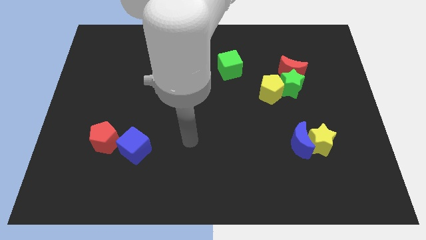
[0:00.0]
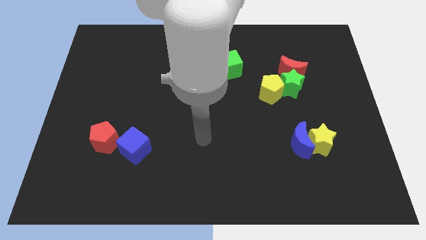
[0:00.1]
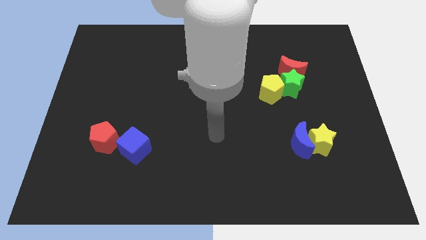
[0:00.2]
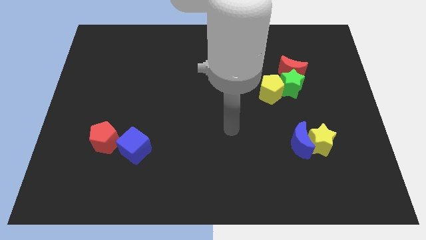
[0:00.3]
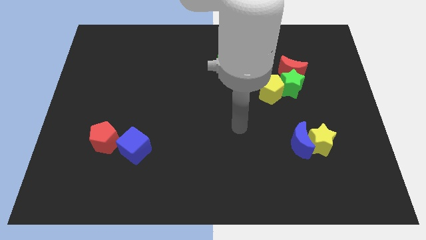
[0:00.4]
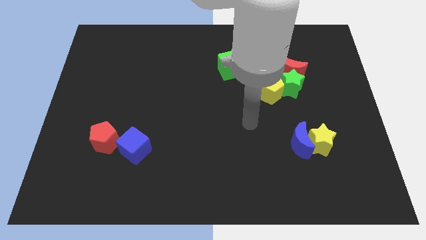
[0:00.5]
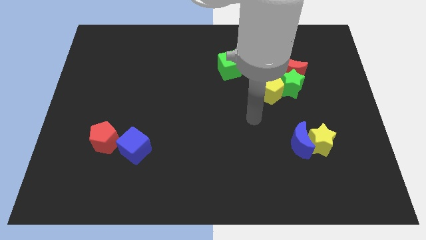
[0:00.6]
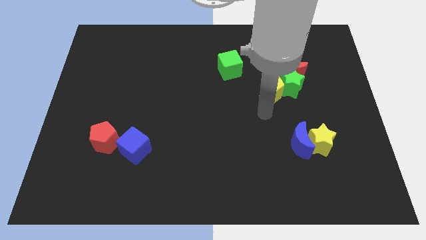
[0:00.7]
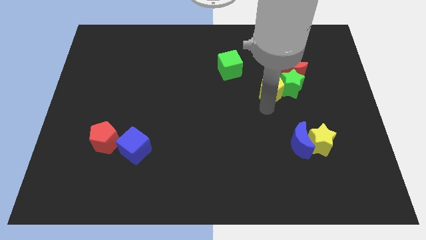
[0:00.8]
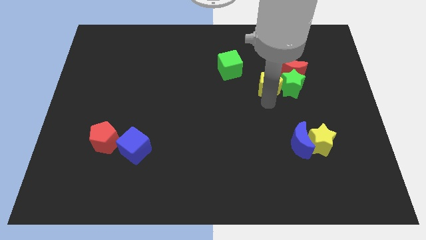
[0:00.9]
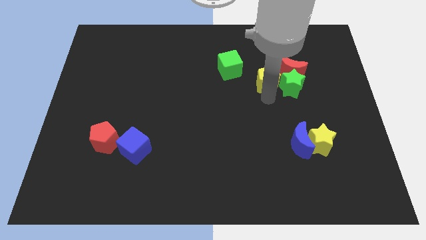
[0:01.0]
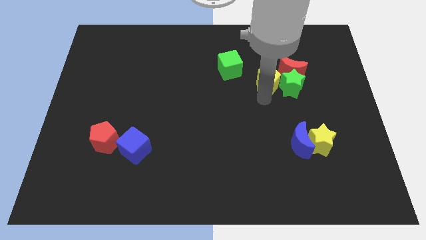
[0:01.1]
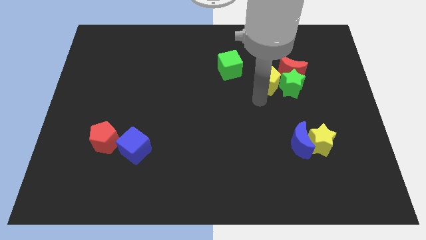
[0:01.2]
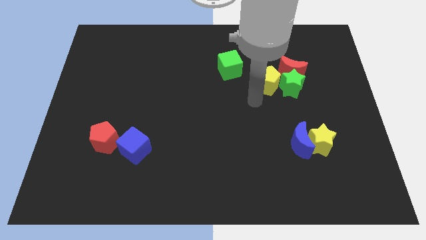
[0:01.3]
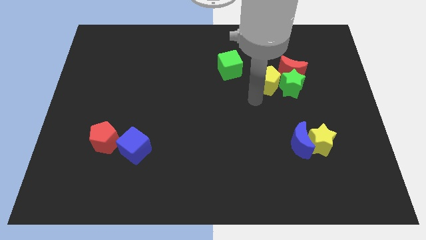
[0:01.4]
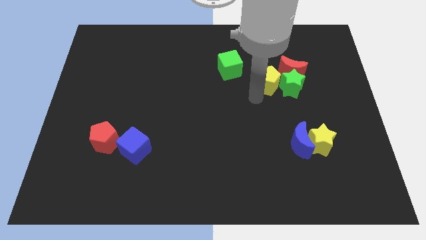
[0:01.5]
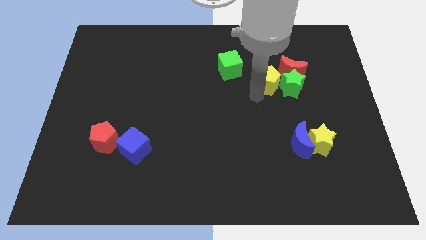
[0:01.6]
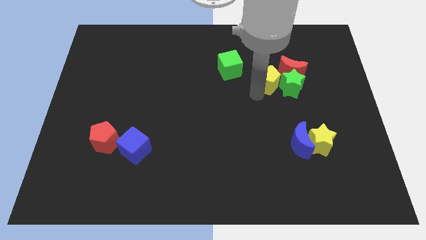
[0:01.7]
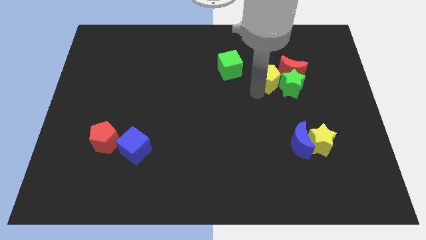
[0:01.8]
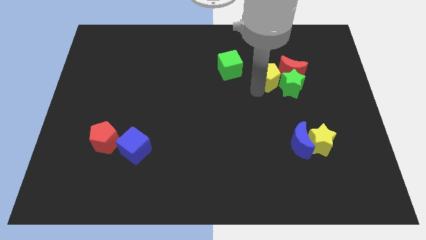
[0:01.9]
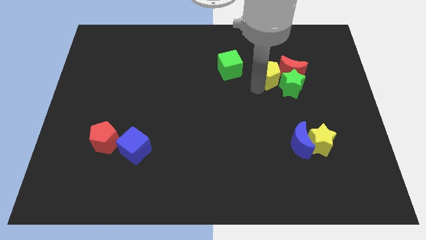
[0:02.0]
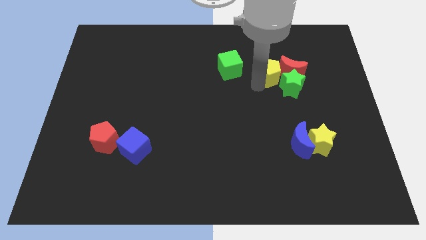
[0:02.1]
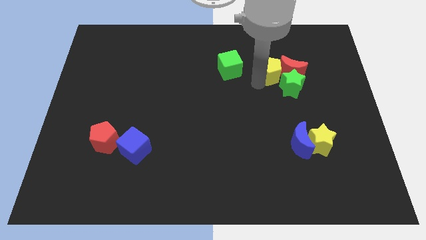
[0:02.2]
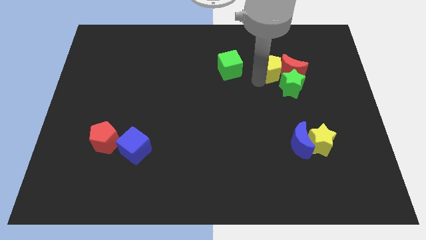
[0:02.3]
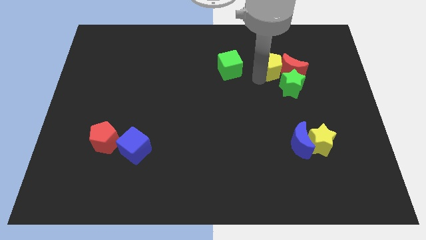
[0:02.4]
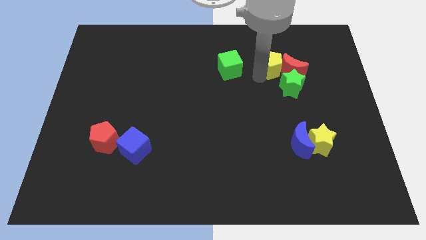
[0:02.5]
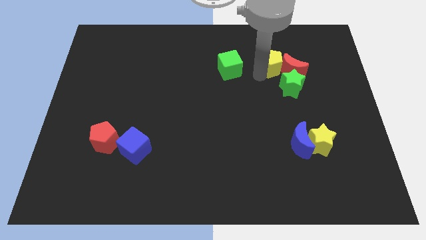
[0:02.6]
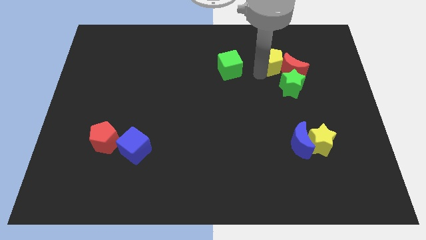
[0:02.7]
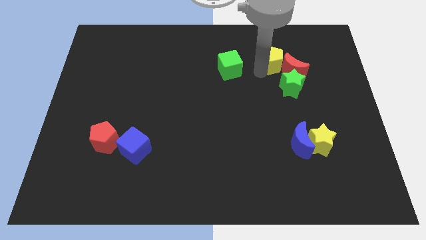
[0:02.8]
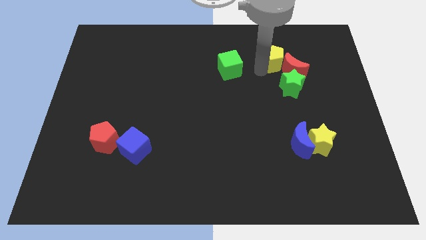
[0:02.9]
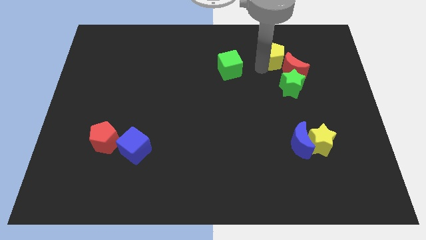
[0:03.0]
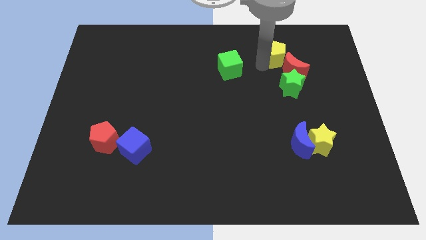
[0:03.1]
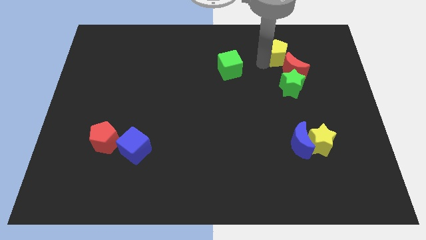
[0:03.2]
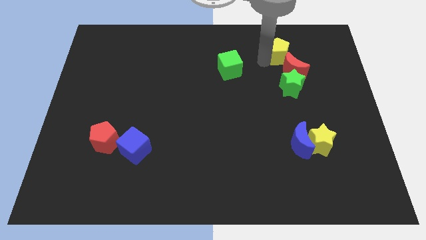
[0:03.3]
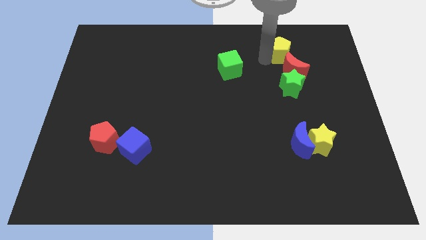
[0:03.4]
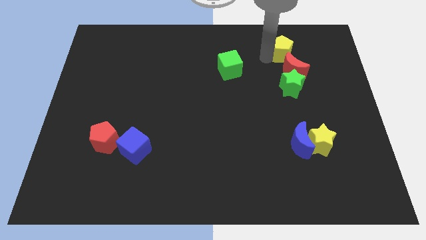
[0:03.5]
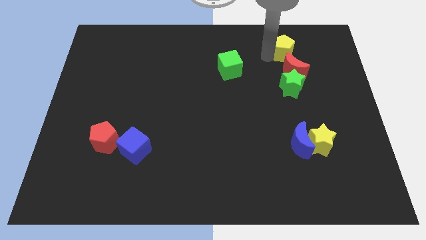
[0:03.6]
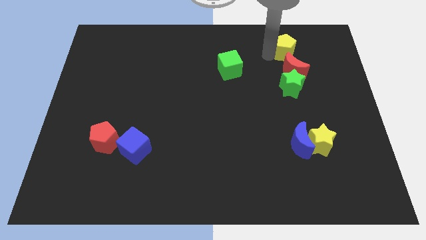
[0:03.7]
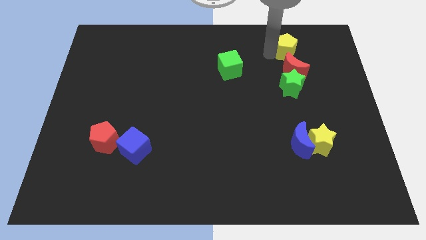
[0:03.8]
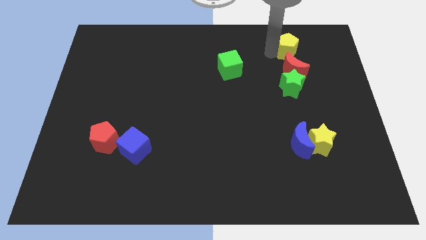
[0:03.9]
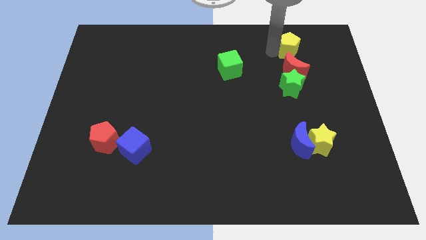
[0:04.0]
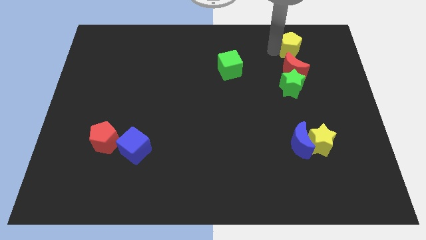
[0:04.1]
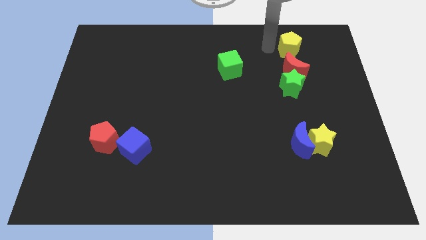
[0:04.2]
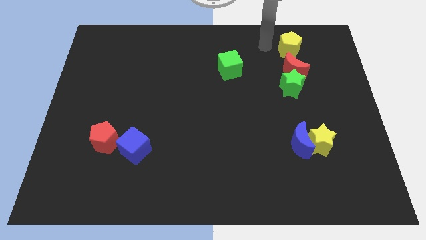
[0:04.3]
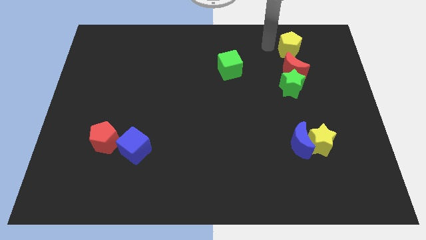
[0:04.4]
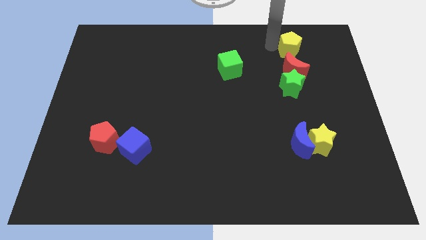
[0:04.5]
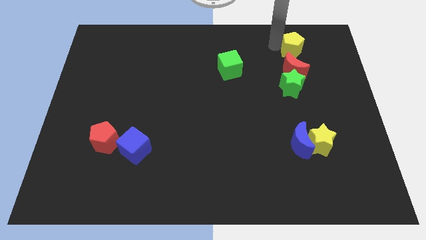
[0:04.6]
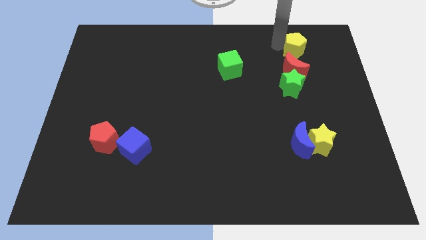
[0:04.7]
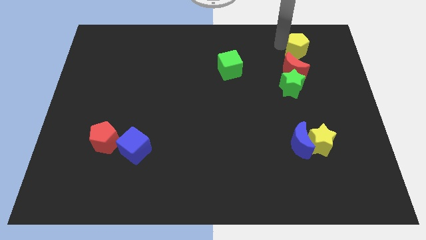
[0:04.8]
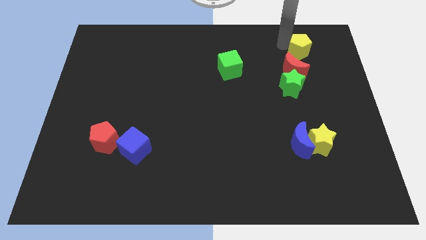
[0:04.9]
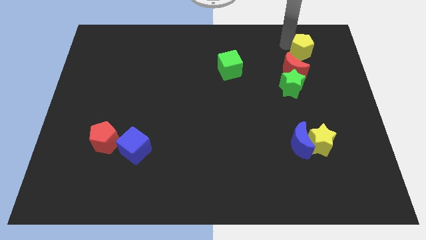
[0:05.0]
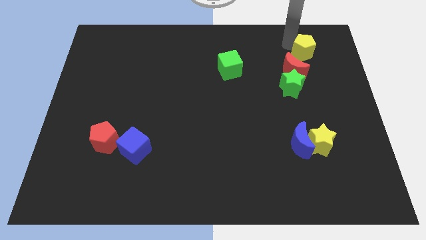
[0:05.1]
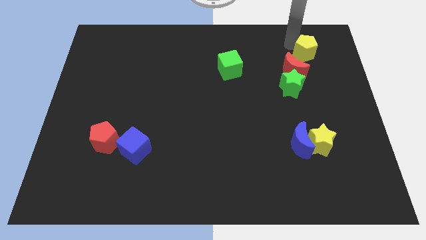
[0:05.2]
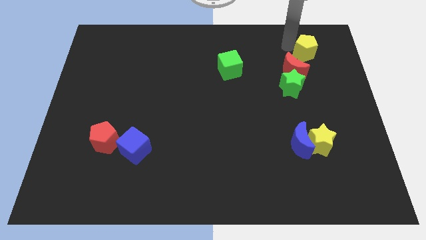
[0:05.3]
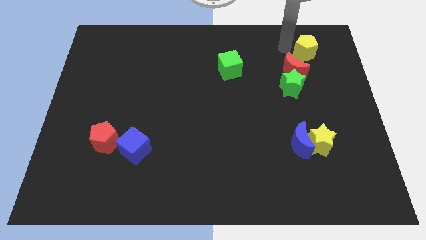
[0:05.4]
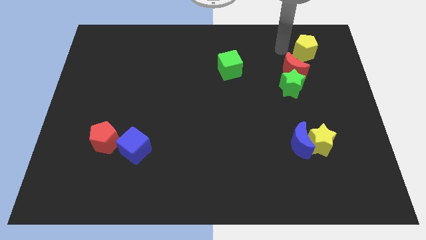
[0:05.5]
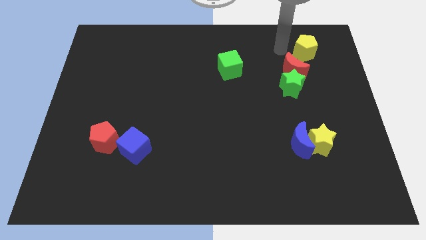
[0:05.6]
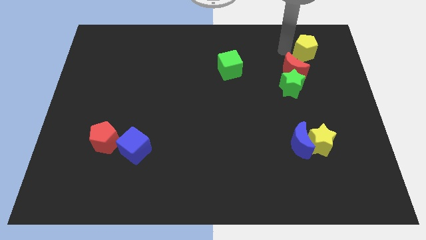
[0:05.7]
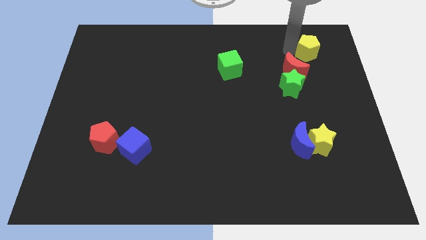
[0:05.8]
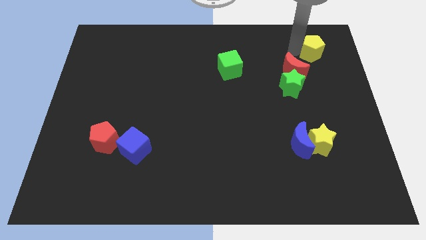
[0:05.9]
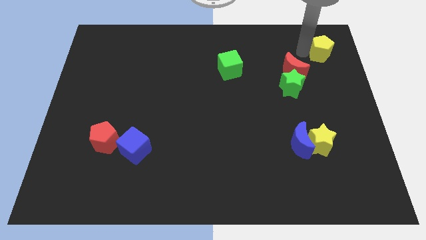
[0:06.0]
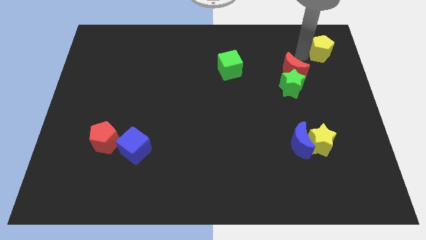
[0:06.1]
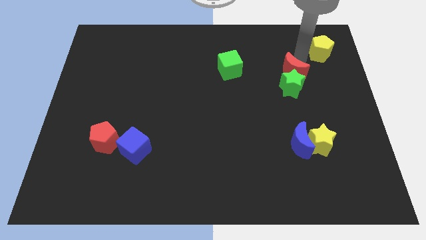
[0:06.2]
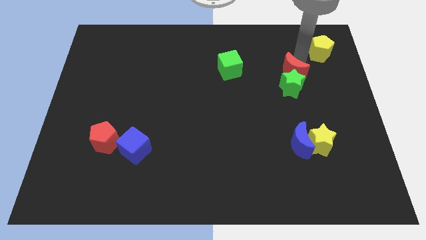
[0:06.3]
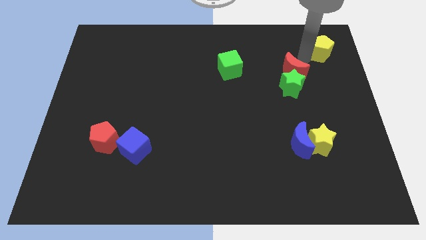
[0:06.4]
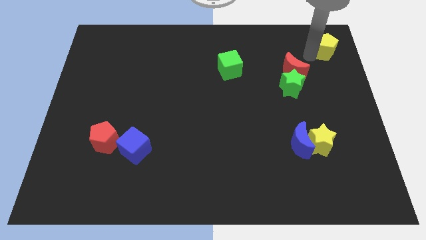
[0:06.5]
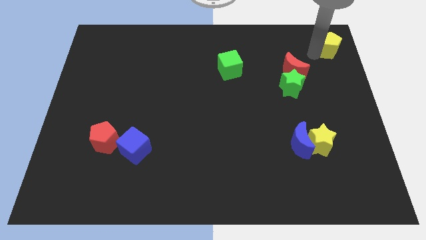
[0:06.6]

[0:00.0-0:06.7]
move the yellow pentagon to the top right corner
